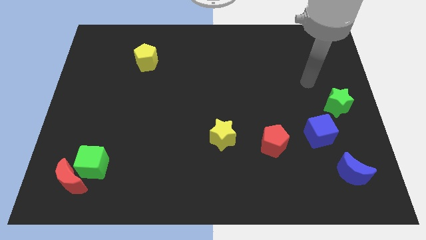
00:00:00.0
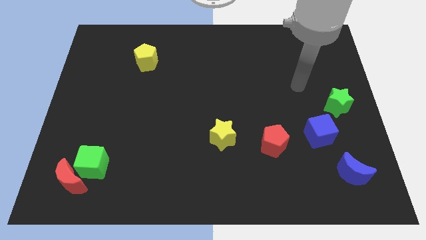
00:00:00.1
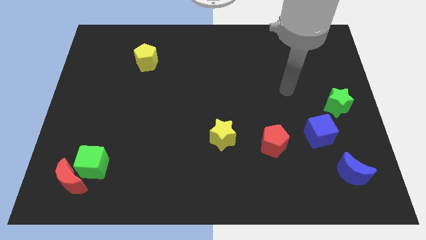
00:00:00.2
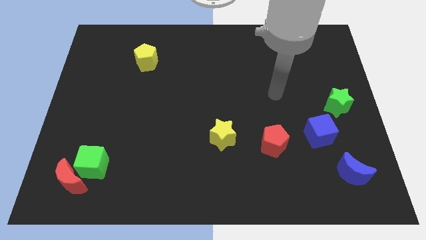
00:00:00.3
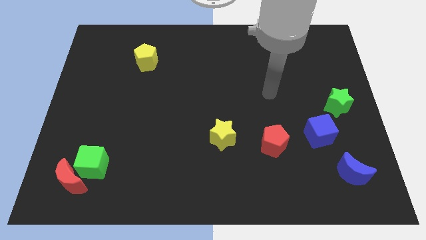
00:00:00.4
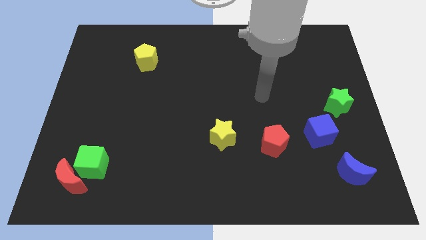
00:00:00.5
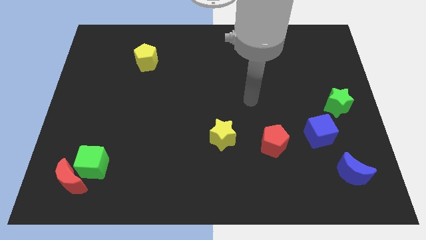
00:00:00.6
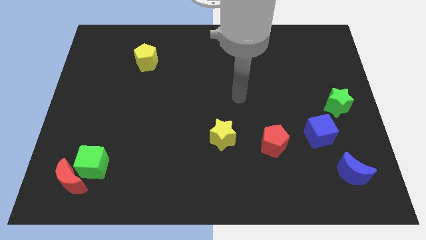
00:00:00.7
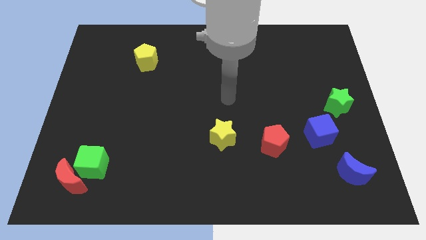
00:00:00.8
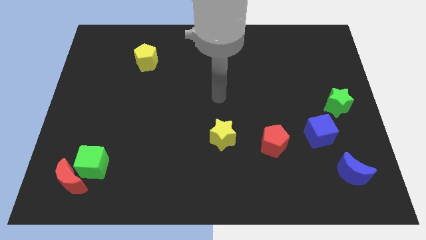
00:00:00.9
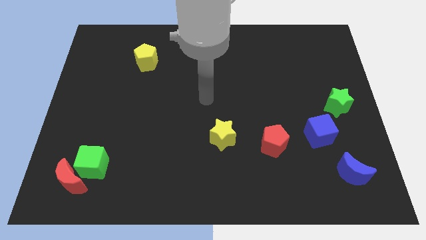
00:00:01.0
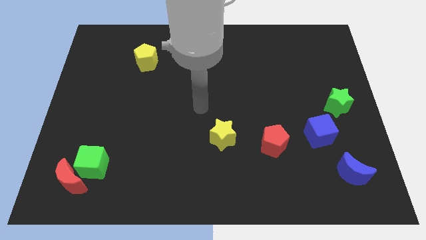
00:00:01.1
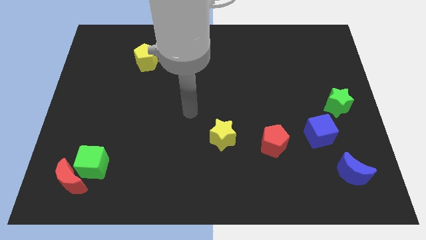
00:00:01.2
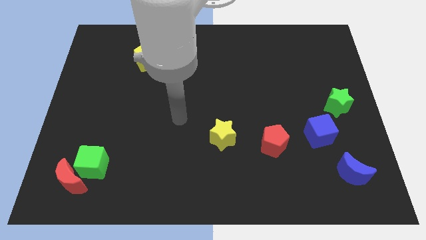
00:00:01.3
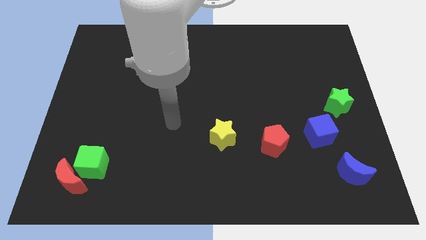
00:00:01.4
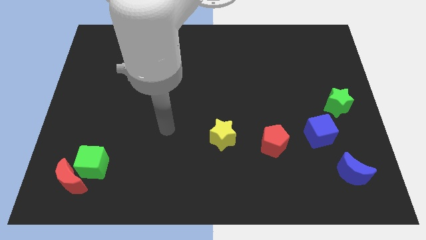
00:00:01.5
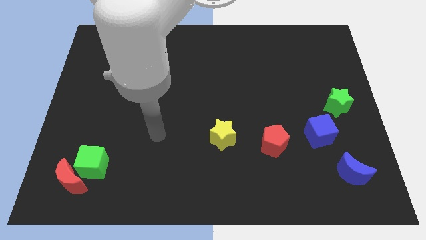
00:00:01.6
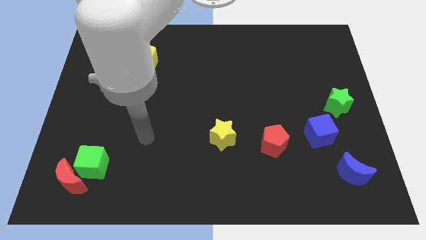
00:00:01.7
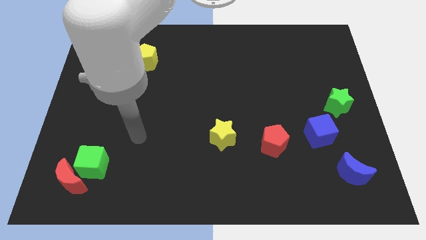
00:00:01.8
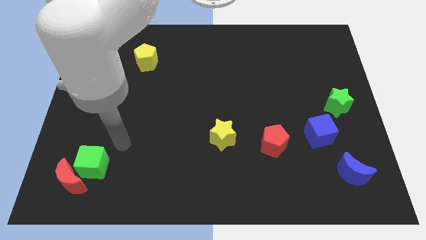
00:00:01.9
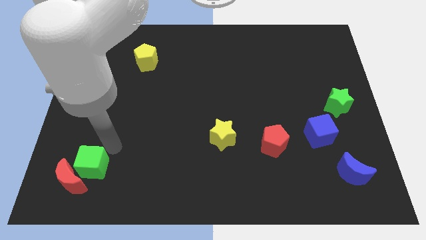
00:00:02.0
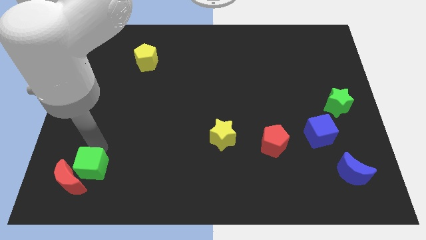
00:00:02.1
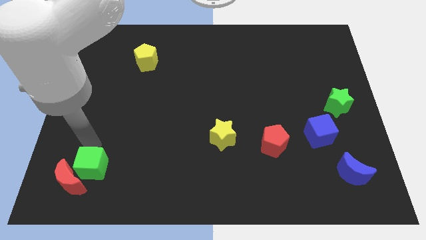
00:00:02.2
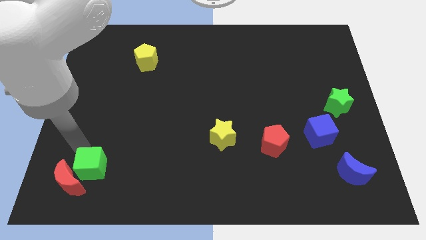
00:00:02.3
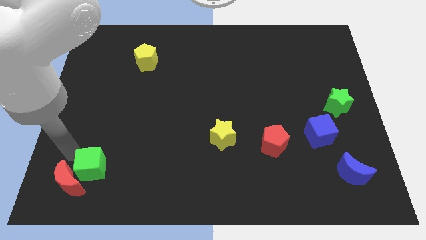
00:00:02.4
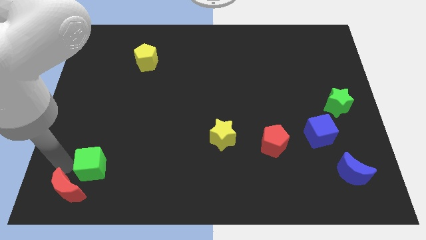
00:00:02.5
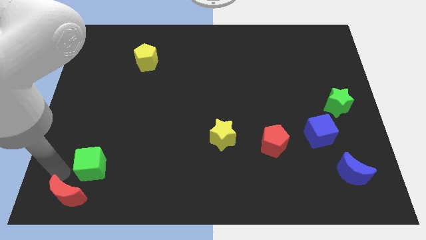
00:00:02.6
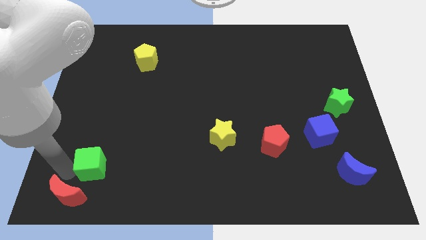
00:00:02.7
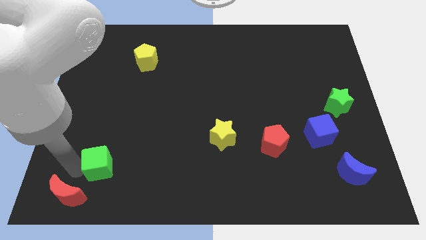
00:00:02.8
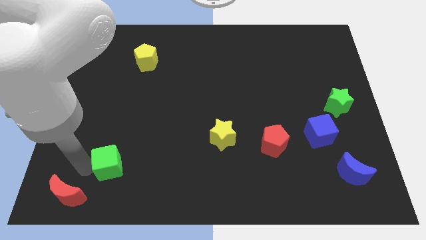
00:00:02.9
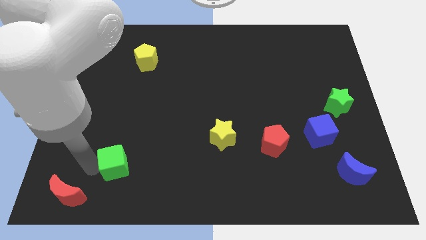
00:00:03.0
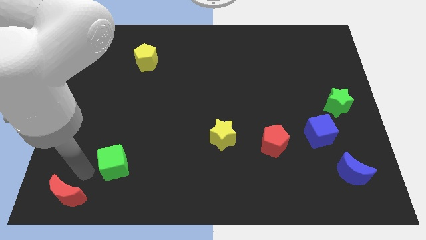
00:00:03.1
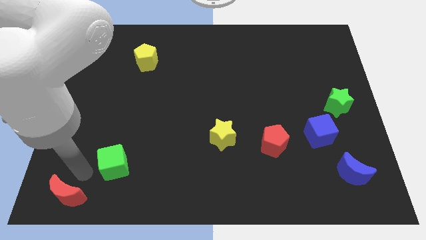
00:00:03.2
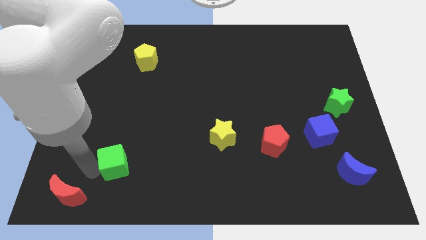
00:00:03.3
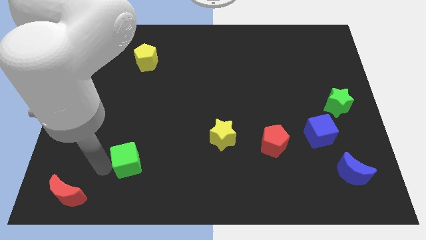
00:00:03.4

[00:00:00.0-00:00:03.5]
move the green cube right a bit

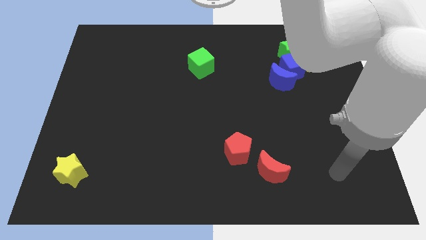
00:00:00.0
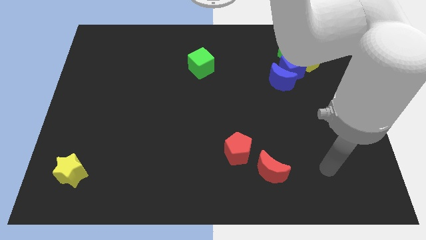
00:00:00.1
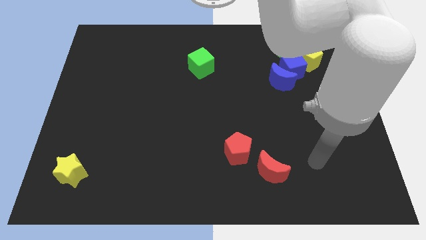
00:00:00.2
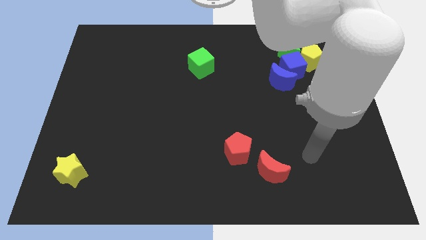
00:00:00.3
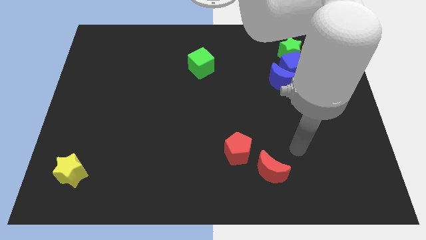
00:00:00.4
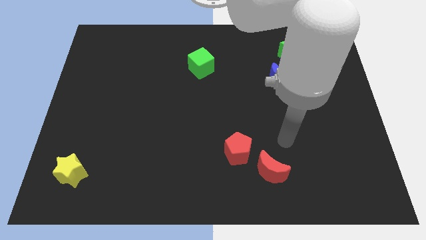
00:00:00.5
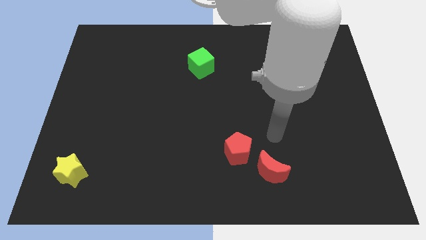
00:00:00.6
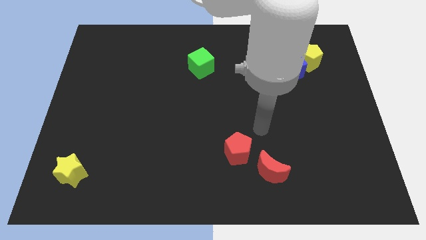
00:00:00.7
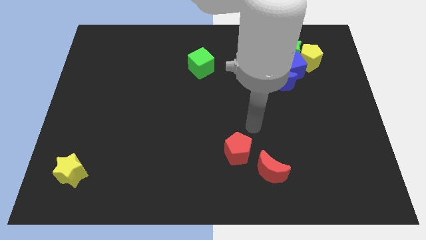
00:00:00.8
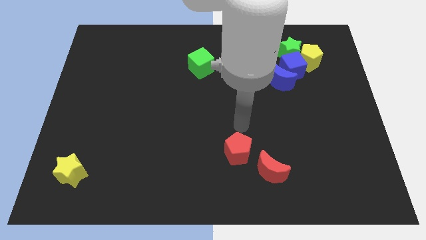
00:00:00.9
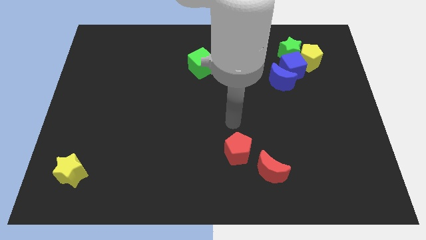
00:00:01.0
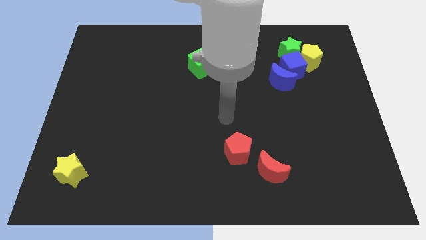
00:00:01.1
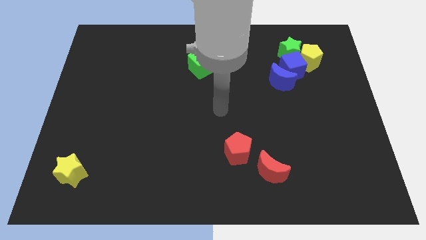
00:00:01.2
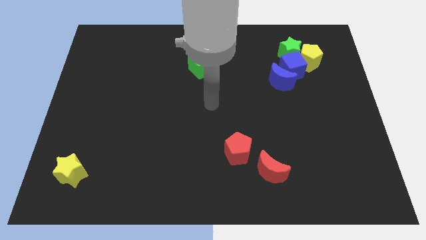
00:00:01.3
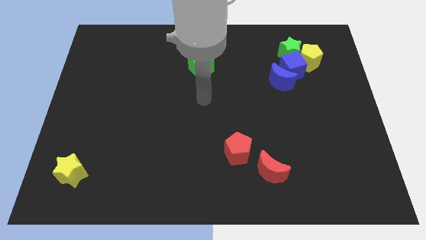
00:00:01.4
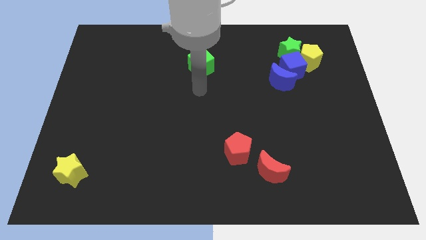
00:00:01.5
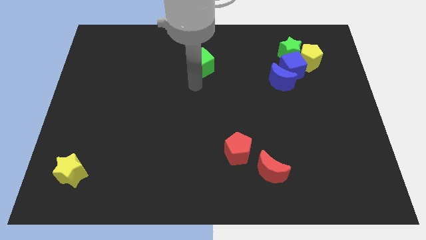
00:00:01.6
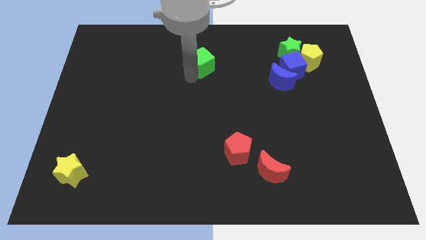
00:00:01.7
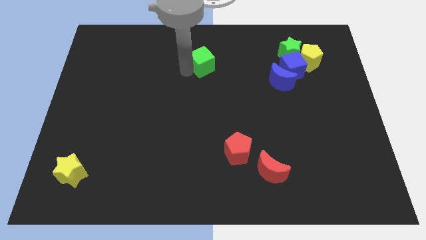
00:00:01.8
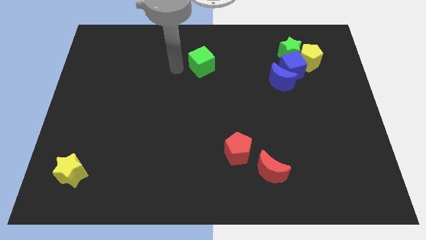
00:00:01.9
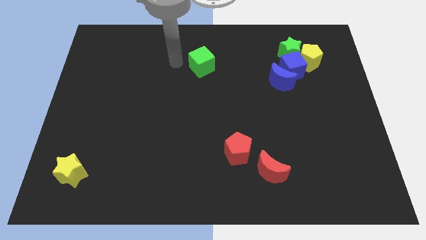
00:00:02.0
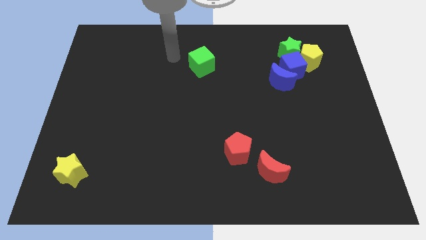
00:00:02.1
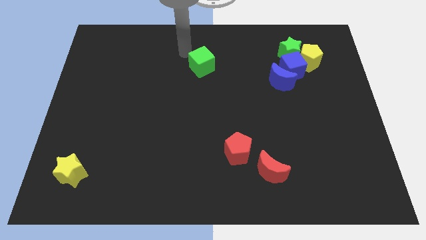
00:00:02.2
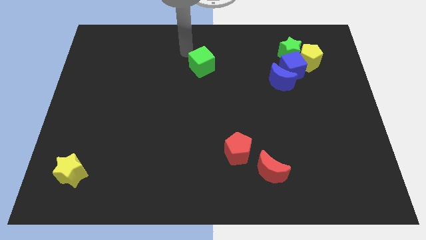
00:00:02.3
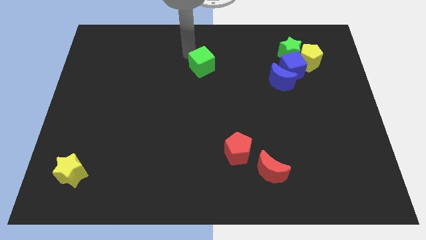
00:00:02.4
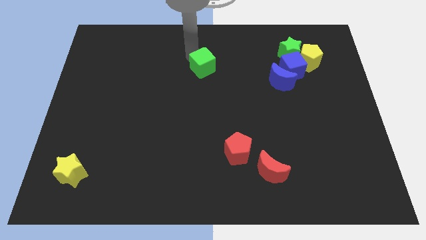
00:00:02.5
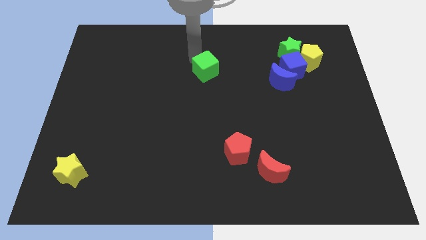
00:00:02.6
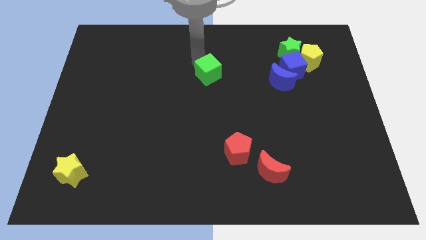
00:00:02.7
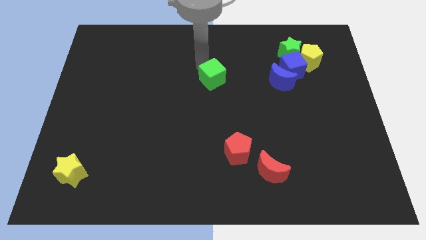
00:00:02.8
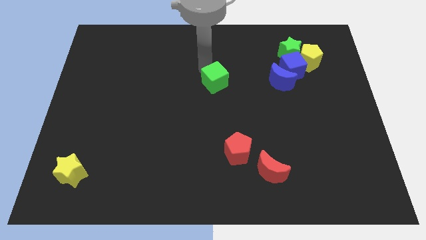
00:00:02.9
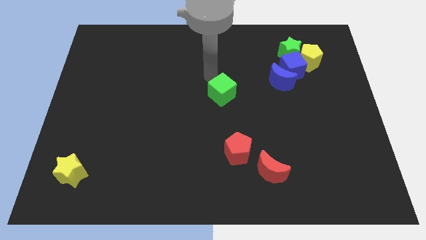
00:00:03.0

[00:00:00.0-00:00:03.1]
slightly slide the green cube downwards and to the right diagonally

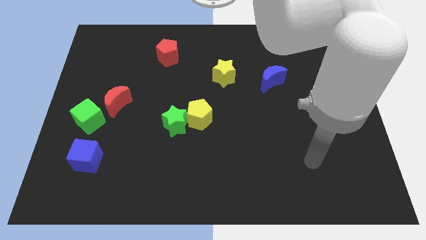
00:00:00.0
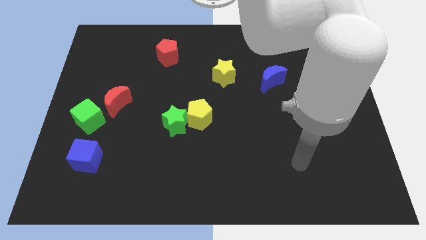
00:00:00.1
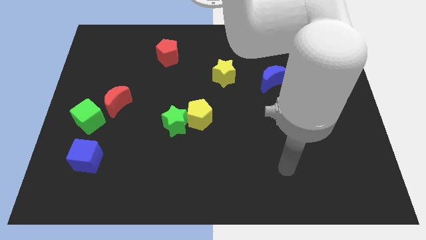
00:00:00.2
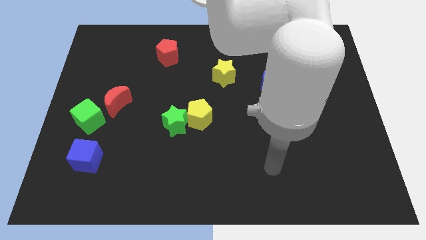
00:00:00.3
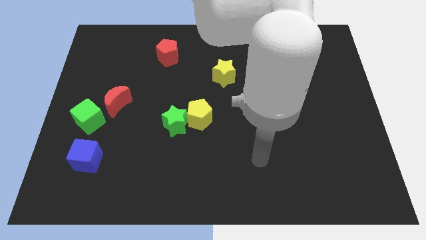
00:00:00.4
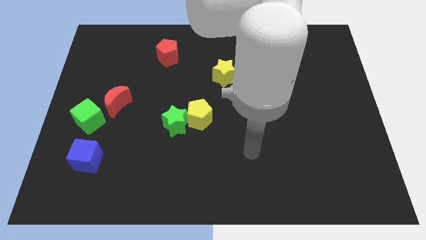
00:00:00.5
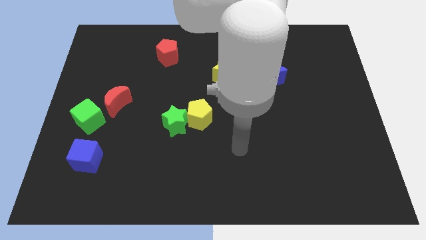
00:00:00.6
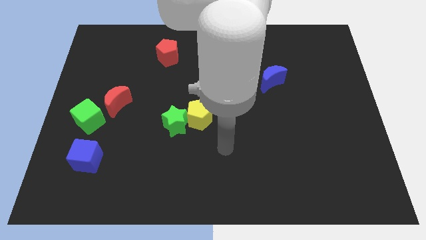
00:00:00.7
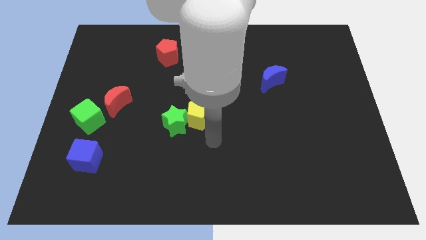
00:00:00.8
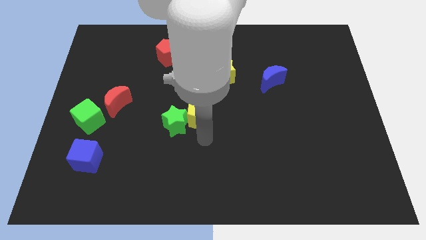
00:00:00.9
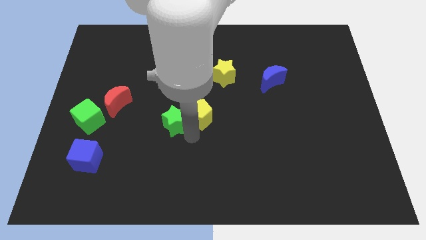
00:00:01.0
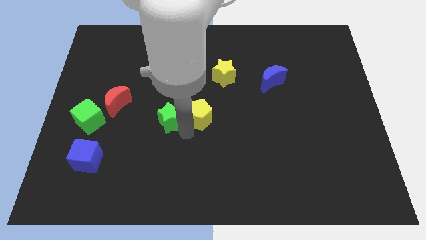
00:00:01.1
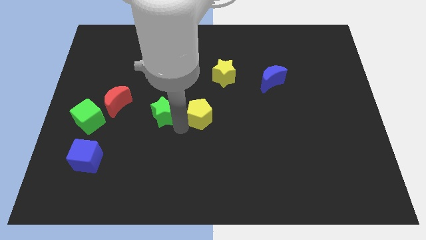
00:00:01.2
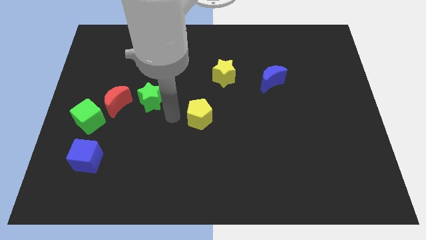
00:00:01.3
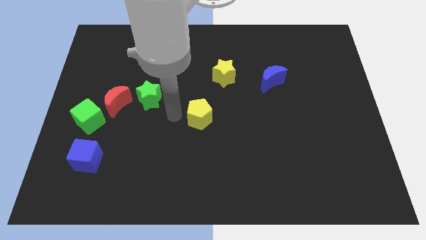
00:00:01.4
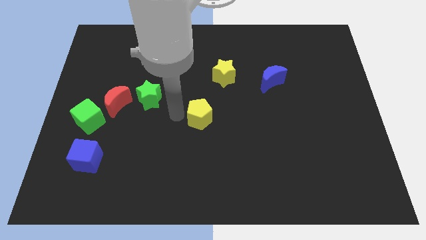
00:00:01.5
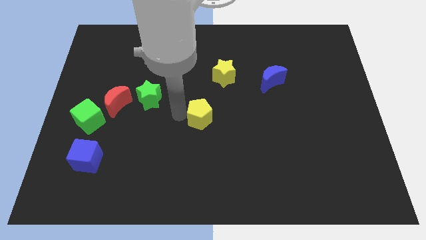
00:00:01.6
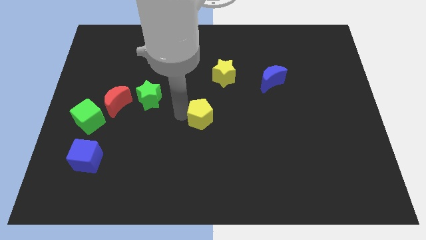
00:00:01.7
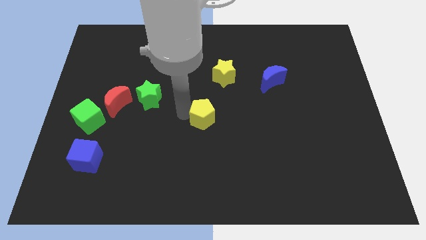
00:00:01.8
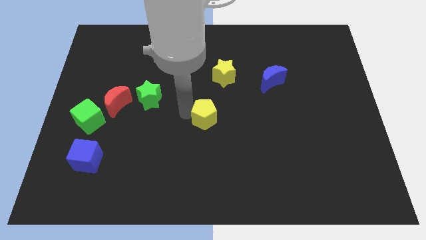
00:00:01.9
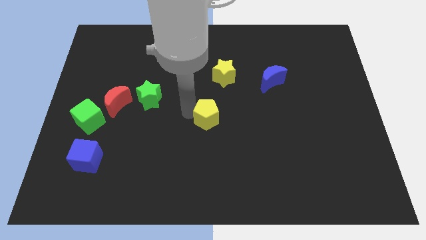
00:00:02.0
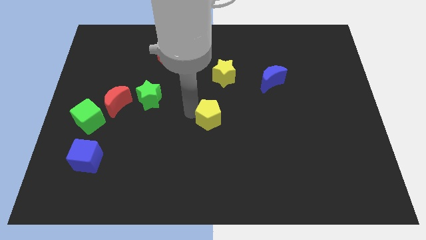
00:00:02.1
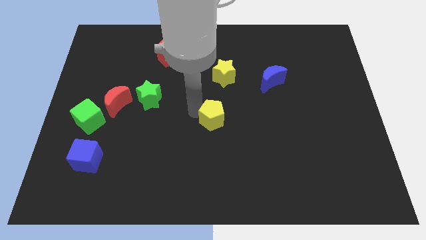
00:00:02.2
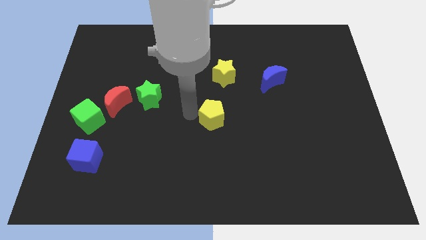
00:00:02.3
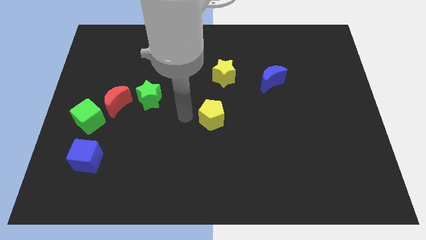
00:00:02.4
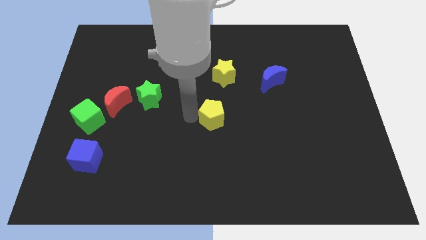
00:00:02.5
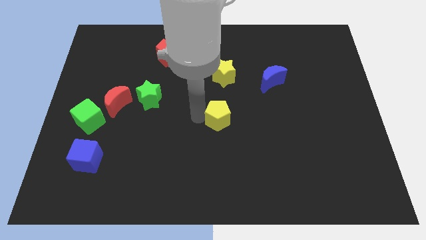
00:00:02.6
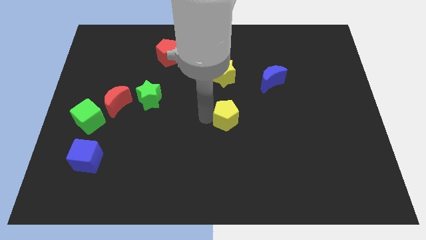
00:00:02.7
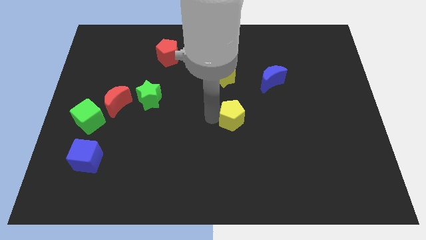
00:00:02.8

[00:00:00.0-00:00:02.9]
push the yellow pentagon a bit right
